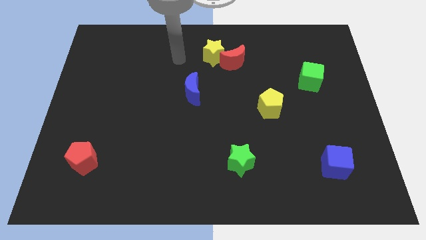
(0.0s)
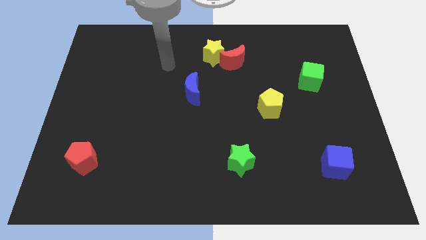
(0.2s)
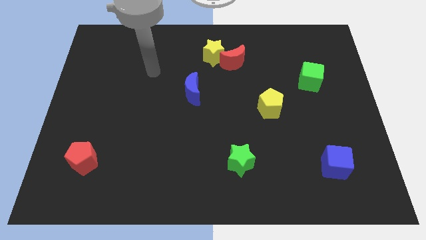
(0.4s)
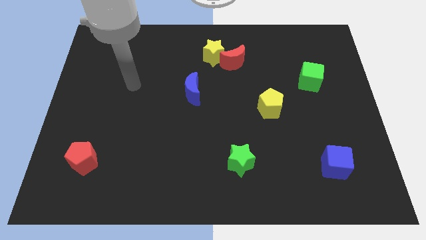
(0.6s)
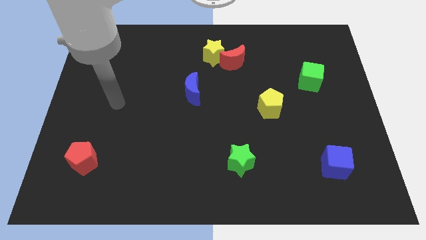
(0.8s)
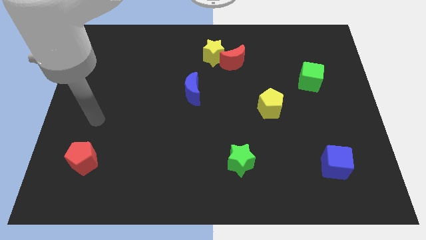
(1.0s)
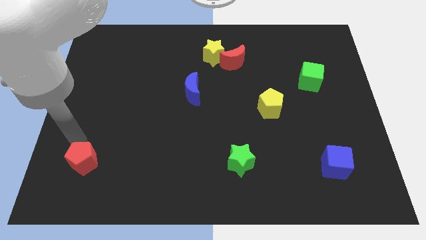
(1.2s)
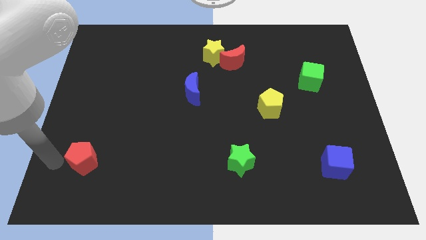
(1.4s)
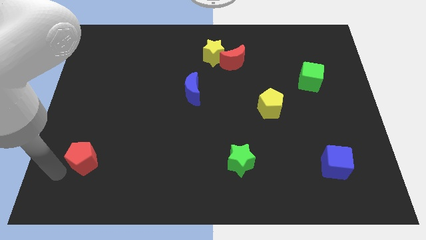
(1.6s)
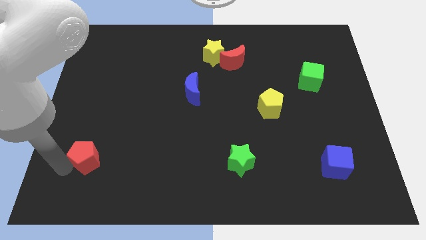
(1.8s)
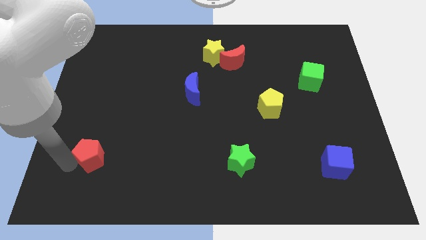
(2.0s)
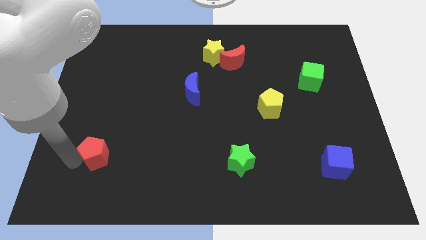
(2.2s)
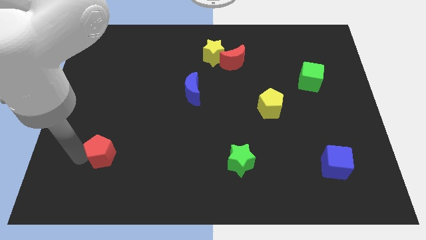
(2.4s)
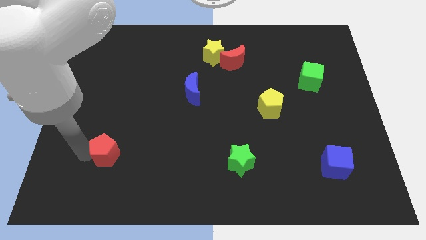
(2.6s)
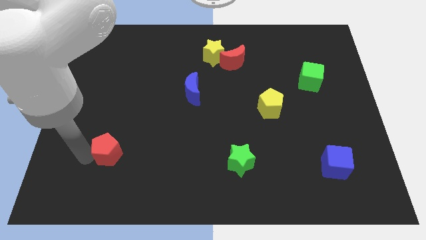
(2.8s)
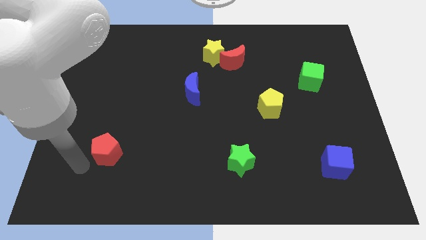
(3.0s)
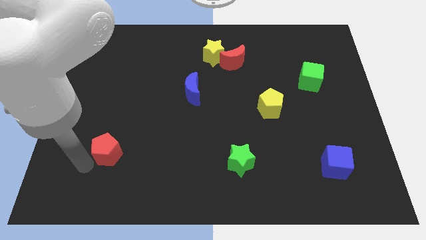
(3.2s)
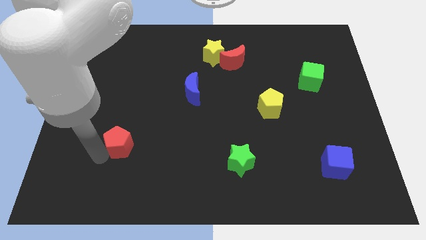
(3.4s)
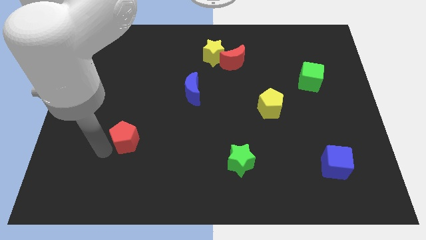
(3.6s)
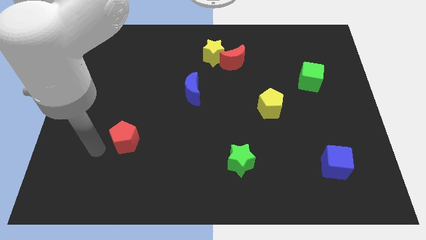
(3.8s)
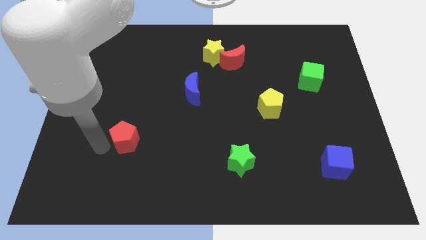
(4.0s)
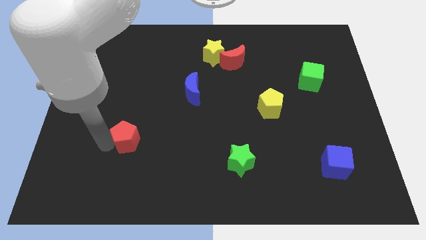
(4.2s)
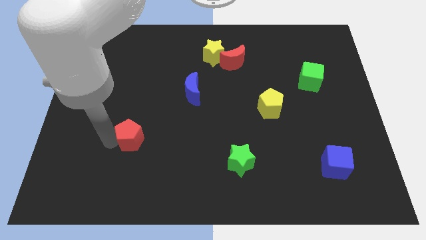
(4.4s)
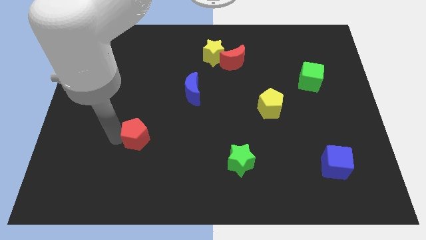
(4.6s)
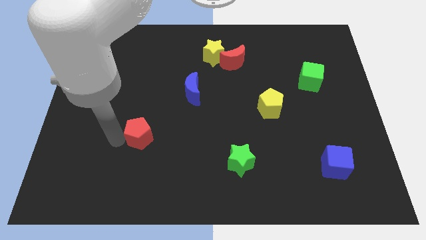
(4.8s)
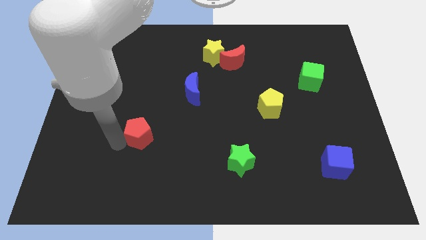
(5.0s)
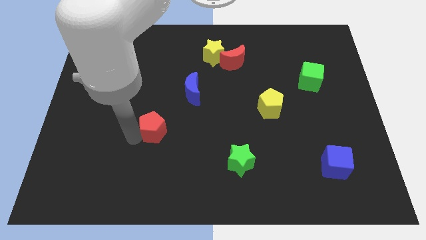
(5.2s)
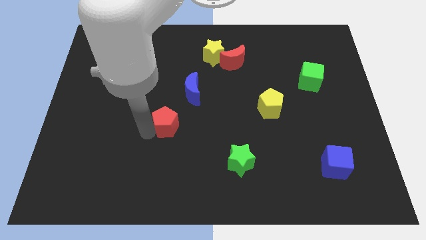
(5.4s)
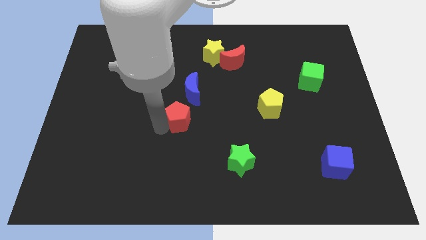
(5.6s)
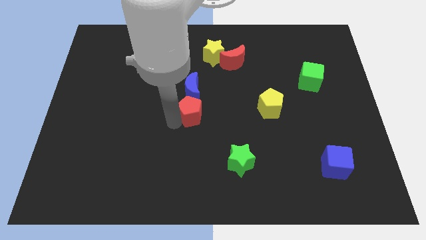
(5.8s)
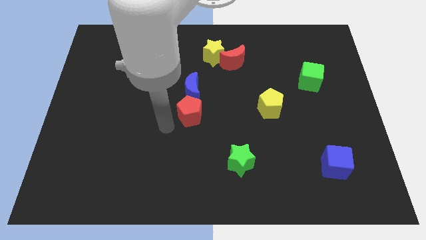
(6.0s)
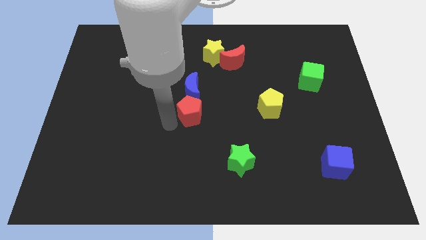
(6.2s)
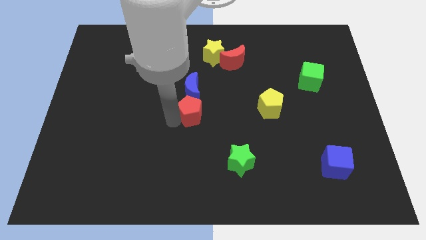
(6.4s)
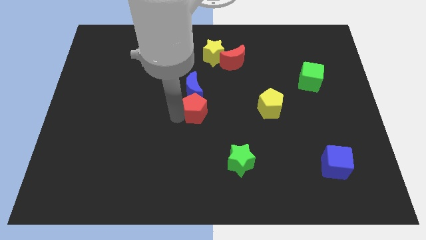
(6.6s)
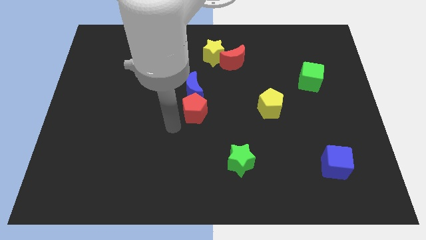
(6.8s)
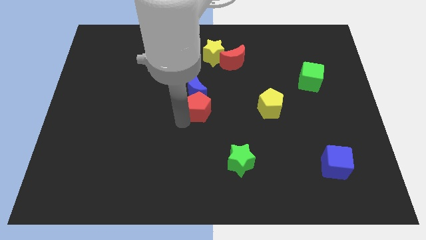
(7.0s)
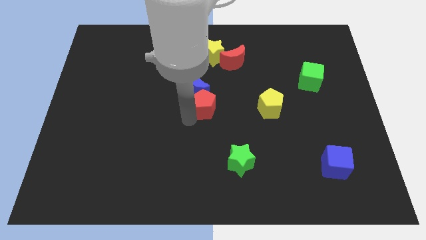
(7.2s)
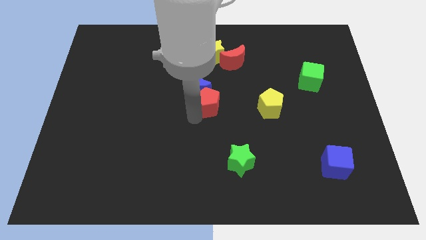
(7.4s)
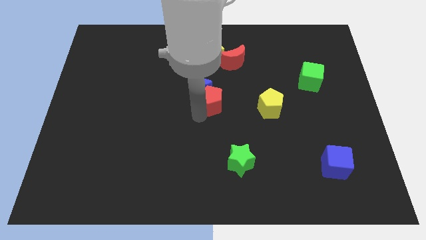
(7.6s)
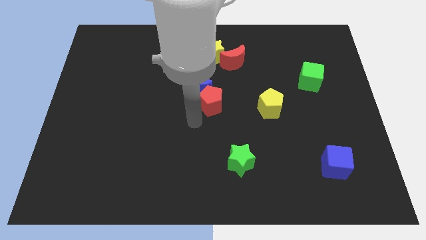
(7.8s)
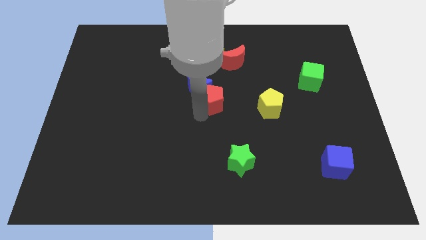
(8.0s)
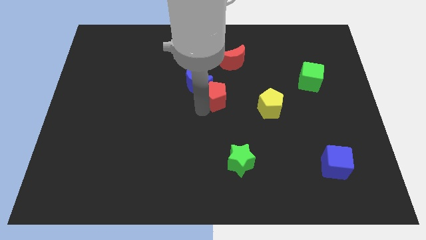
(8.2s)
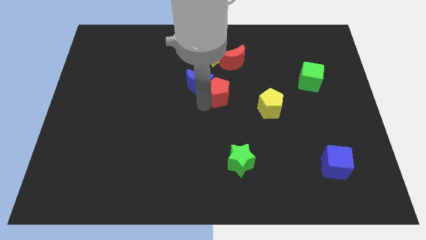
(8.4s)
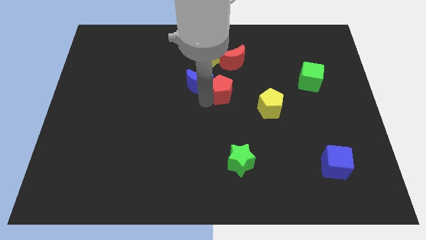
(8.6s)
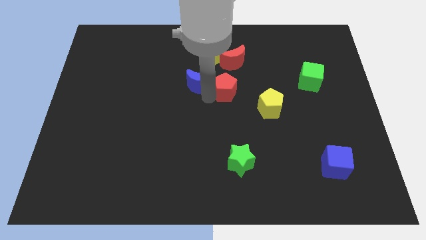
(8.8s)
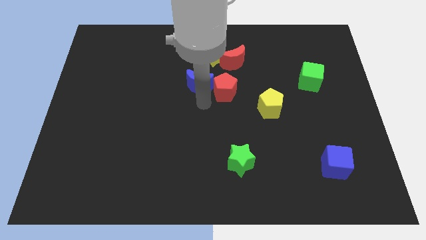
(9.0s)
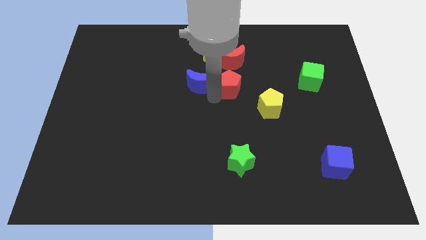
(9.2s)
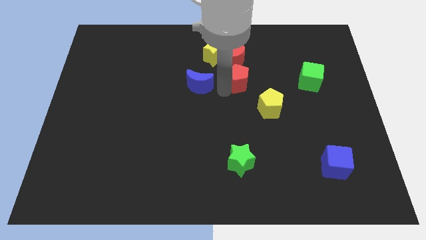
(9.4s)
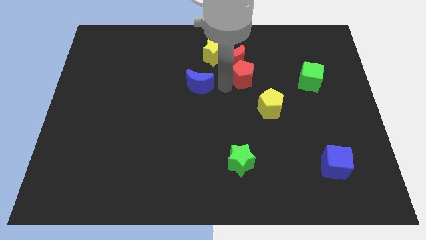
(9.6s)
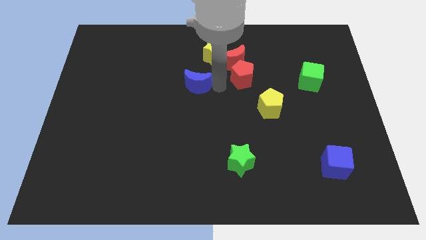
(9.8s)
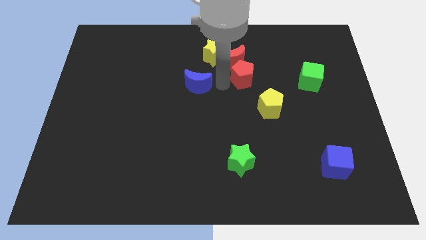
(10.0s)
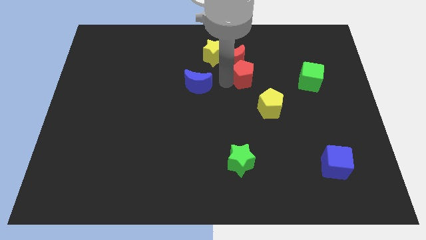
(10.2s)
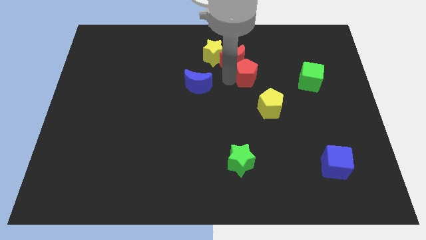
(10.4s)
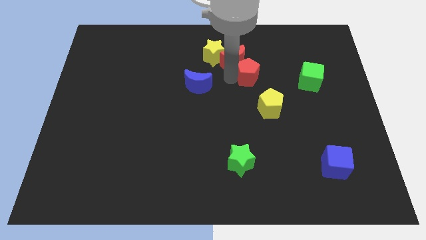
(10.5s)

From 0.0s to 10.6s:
slide the red pentagon to the right side of the red moon

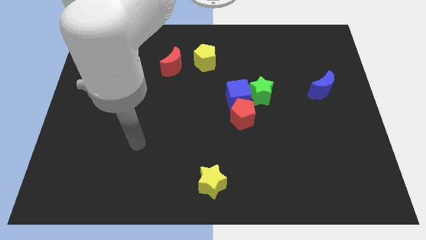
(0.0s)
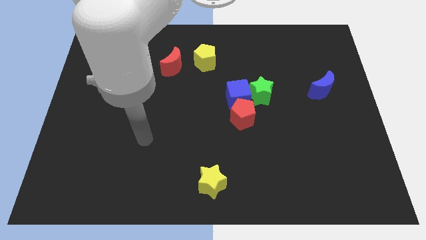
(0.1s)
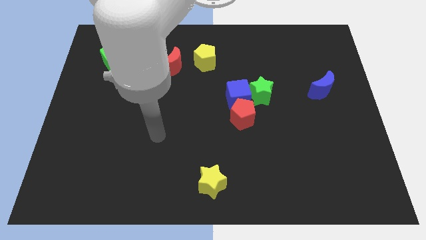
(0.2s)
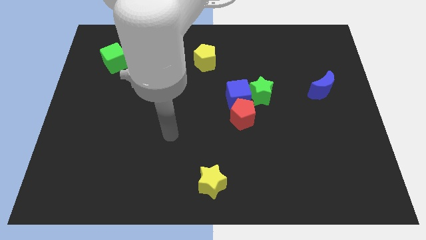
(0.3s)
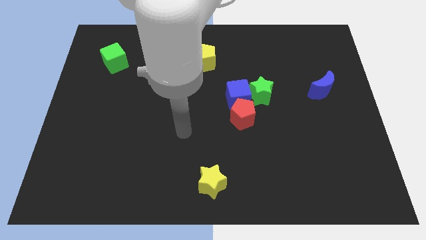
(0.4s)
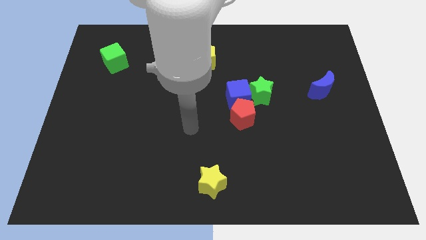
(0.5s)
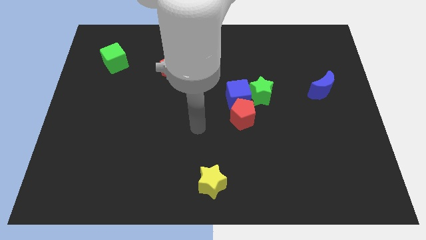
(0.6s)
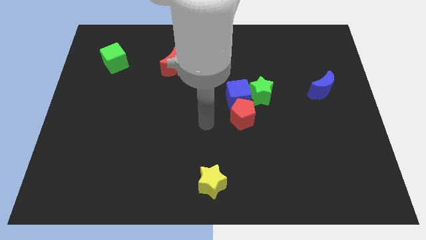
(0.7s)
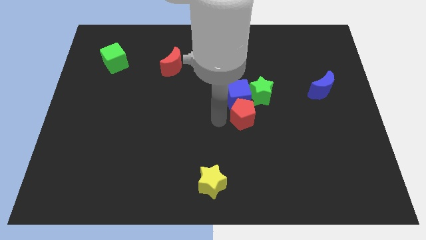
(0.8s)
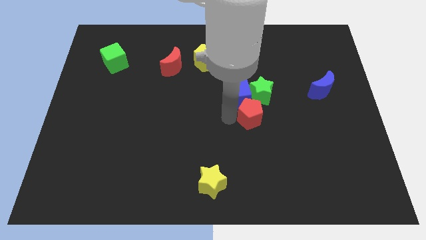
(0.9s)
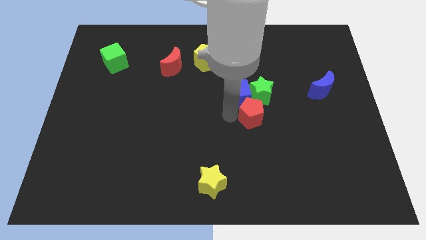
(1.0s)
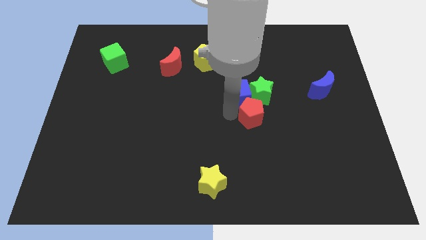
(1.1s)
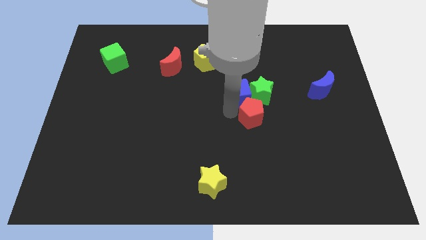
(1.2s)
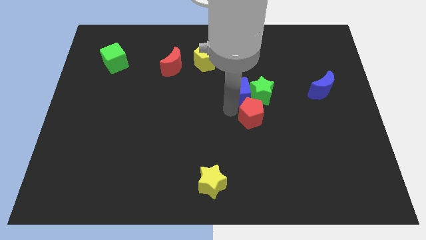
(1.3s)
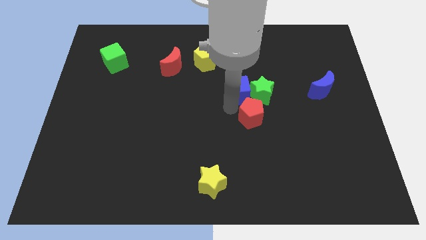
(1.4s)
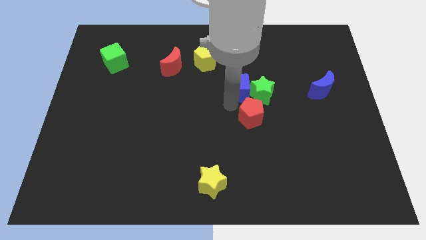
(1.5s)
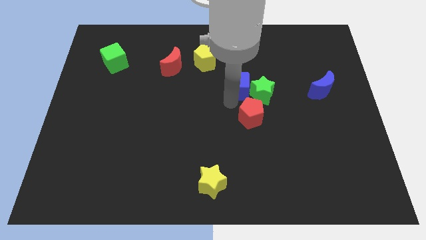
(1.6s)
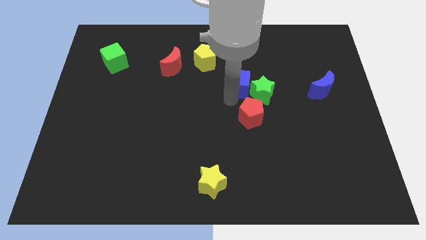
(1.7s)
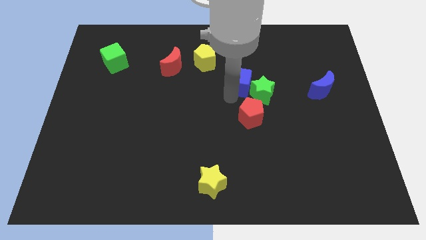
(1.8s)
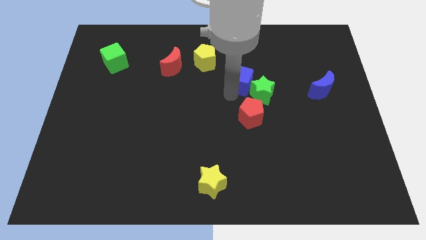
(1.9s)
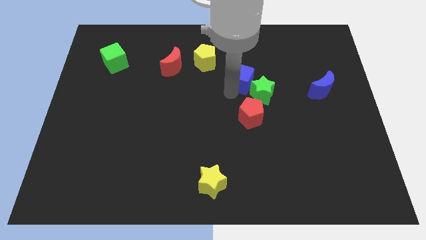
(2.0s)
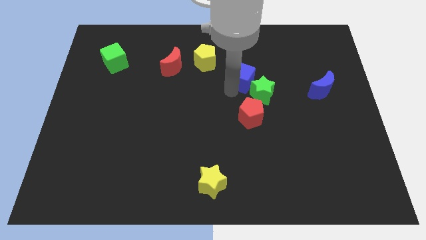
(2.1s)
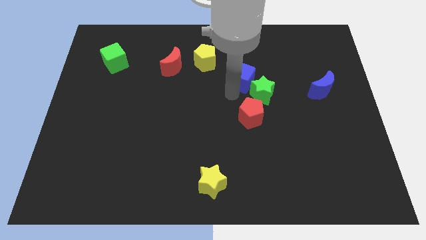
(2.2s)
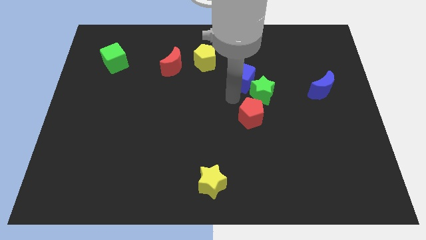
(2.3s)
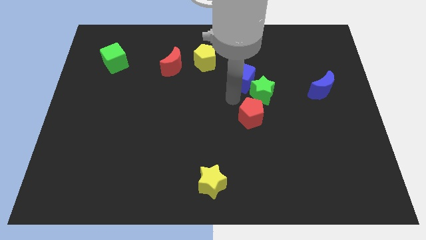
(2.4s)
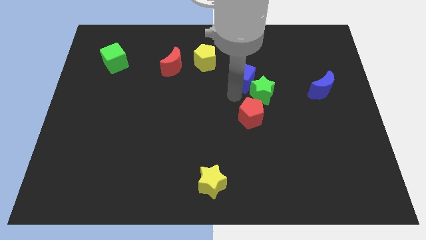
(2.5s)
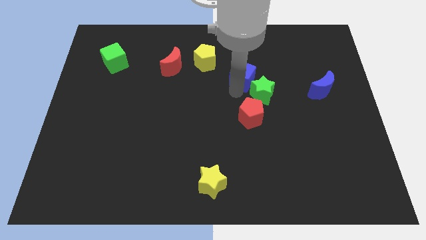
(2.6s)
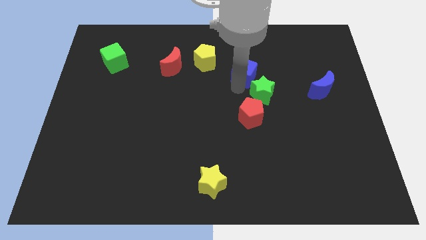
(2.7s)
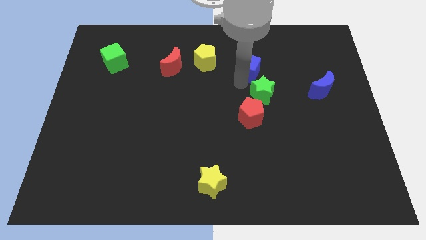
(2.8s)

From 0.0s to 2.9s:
slide the blue cube to the right of the yellow pentagon
